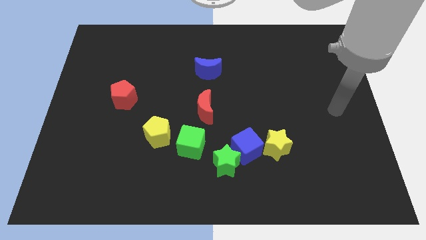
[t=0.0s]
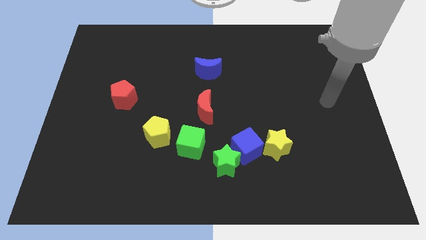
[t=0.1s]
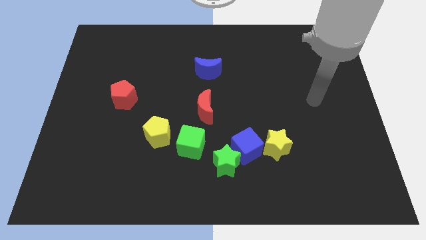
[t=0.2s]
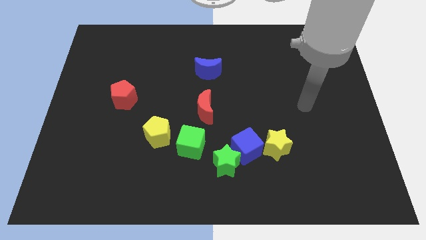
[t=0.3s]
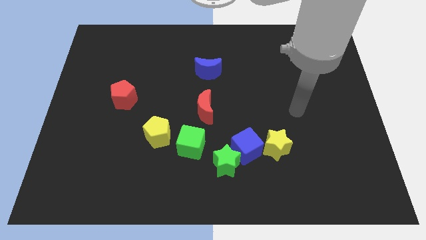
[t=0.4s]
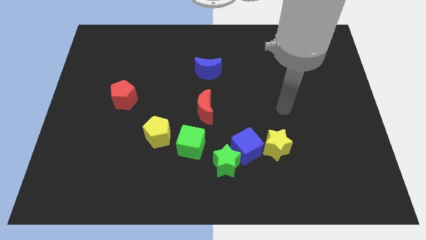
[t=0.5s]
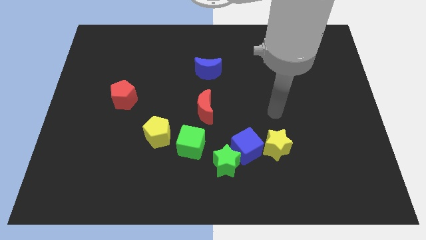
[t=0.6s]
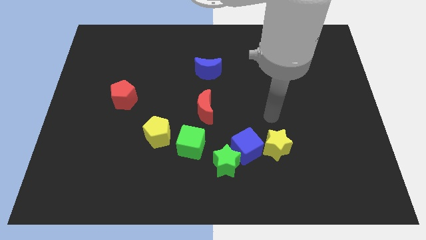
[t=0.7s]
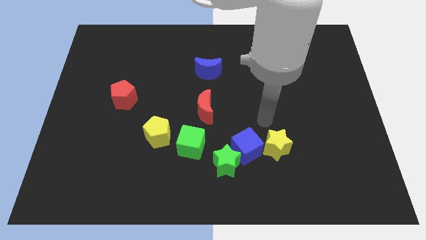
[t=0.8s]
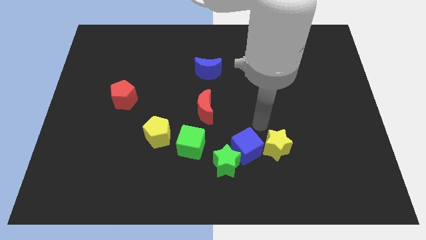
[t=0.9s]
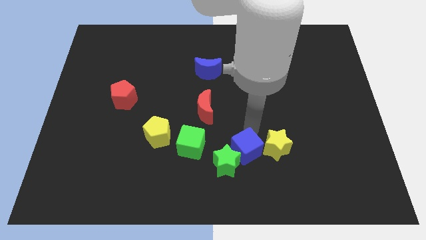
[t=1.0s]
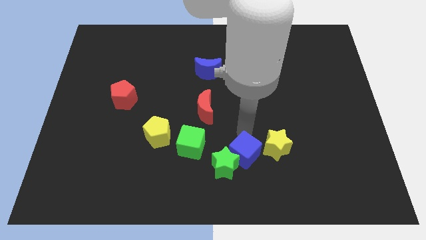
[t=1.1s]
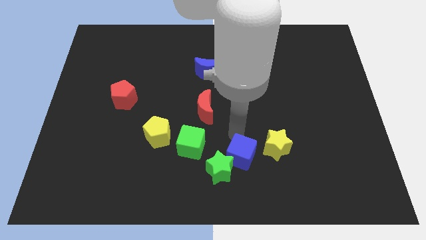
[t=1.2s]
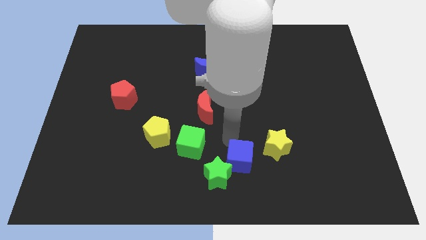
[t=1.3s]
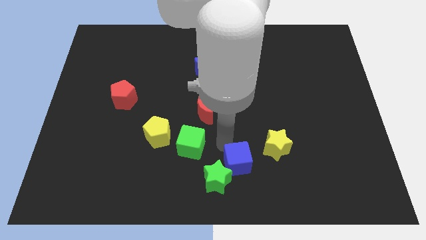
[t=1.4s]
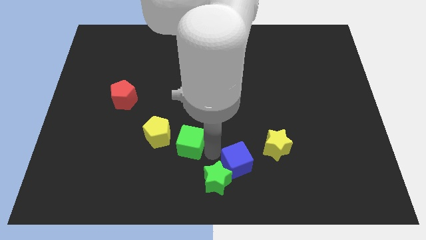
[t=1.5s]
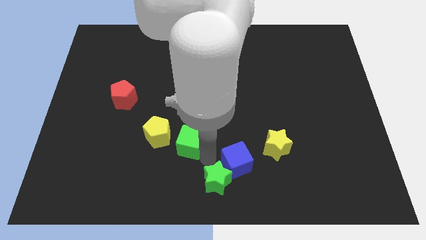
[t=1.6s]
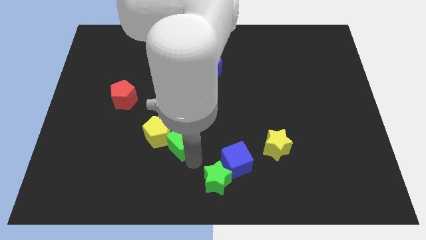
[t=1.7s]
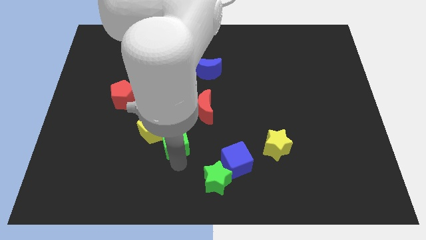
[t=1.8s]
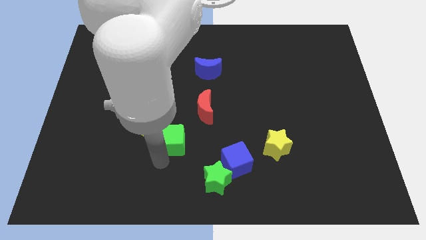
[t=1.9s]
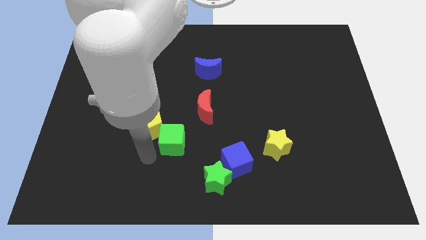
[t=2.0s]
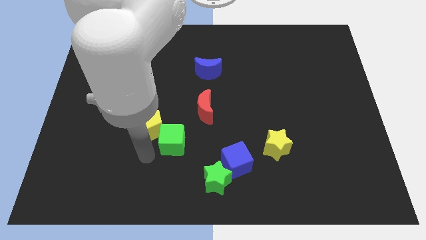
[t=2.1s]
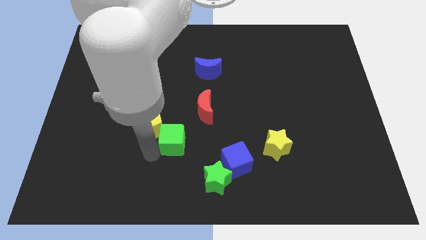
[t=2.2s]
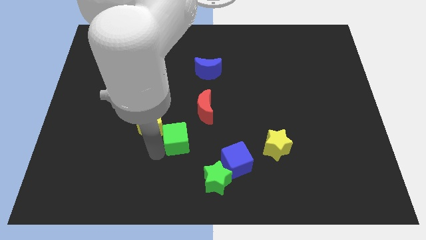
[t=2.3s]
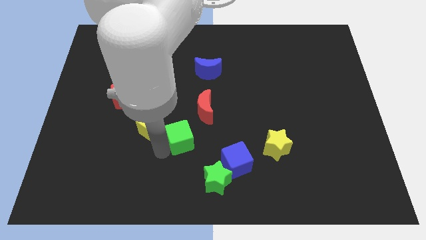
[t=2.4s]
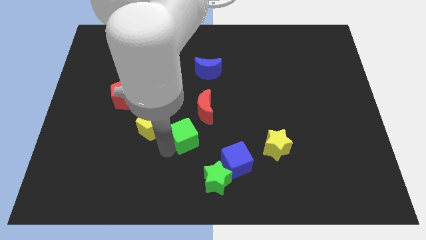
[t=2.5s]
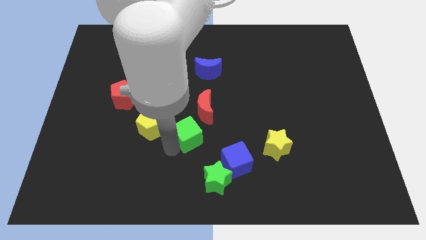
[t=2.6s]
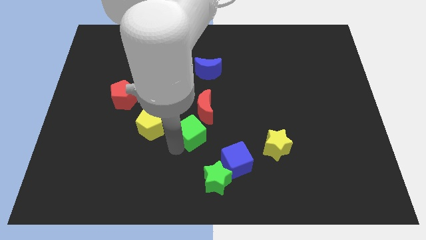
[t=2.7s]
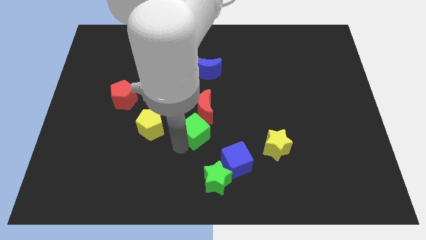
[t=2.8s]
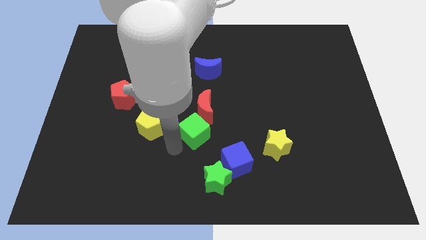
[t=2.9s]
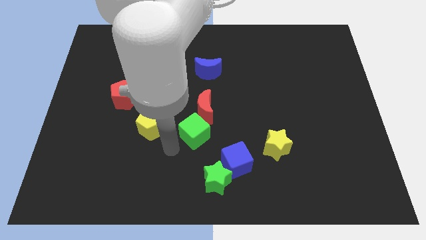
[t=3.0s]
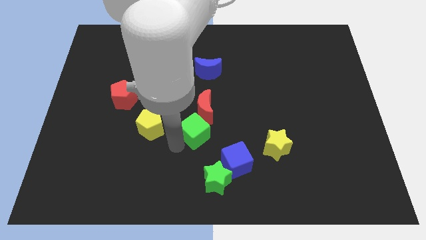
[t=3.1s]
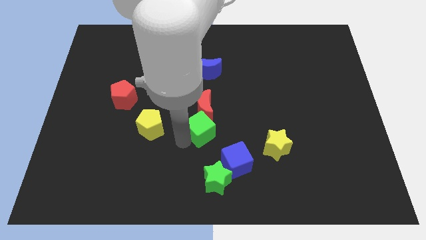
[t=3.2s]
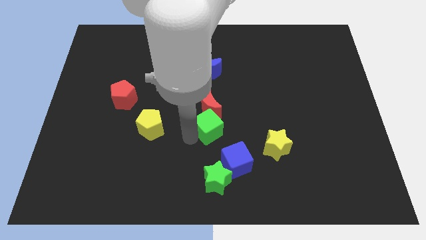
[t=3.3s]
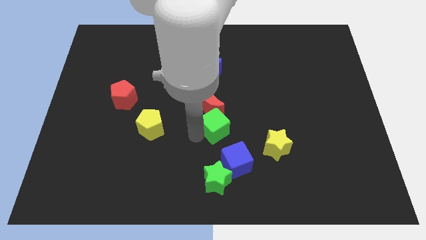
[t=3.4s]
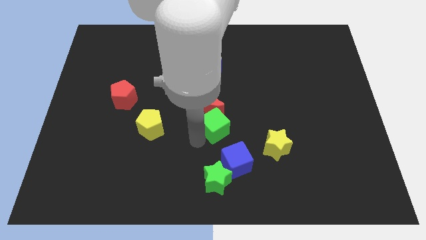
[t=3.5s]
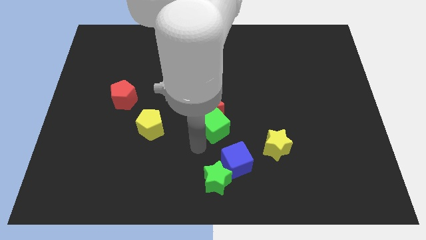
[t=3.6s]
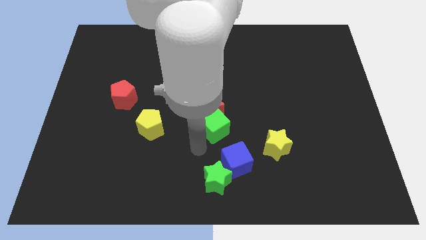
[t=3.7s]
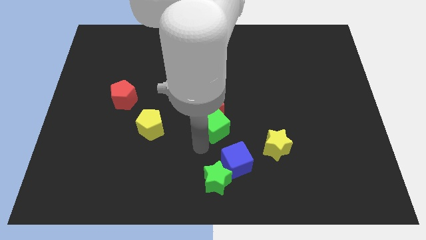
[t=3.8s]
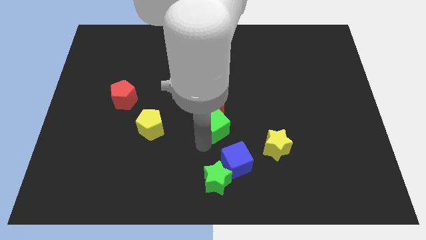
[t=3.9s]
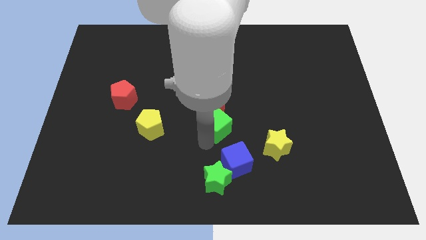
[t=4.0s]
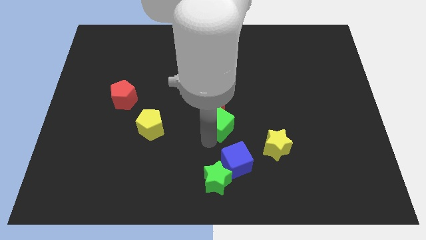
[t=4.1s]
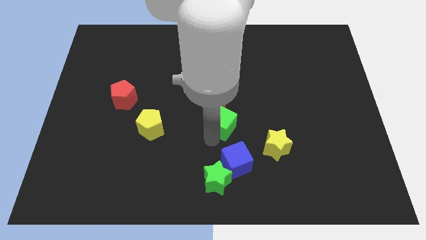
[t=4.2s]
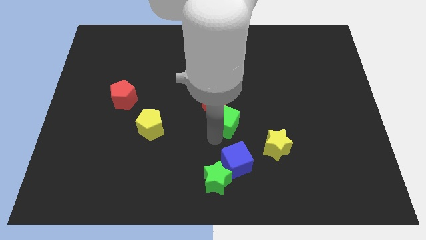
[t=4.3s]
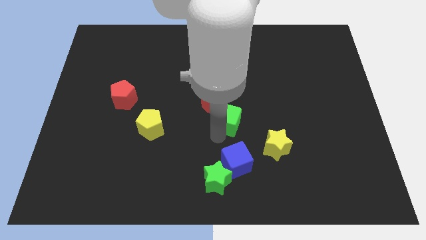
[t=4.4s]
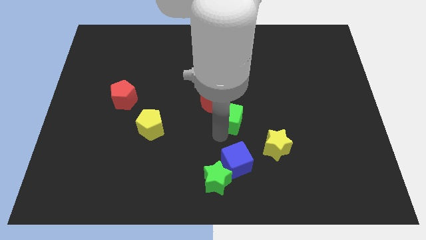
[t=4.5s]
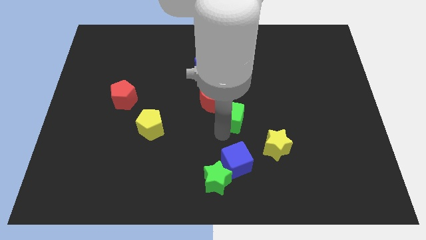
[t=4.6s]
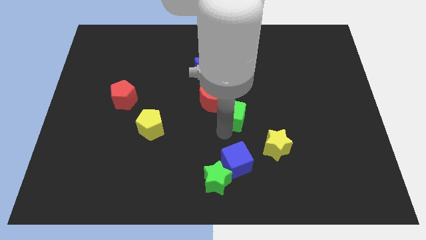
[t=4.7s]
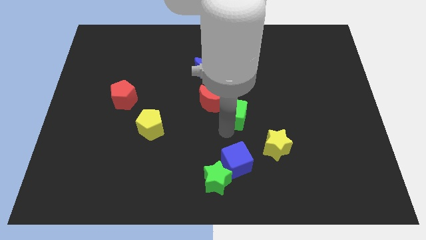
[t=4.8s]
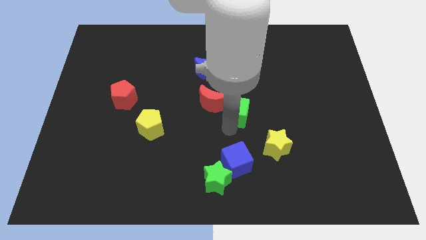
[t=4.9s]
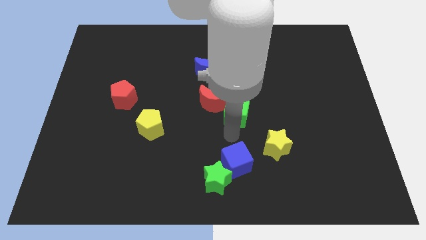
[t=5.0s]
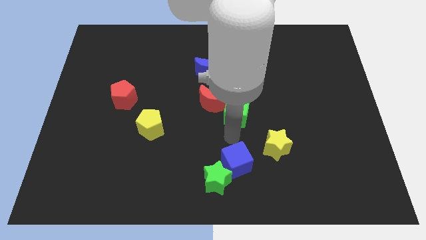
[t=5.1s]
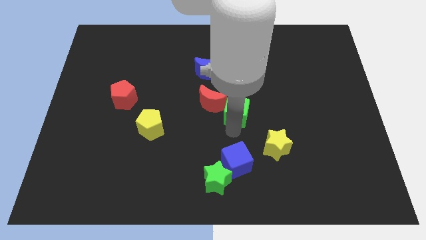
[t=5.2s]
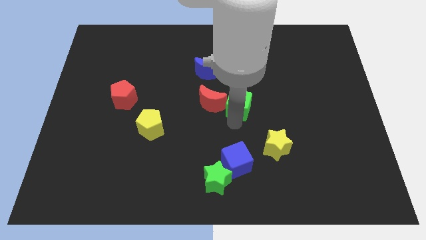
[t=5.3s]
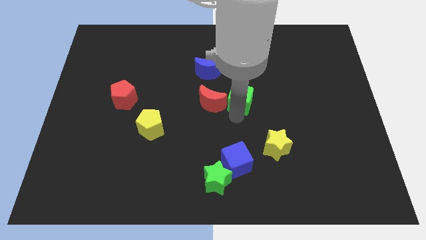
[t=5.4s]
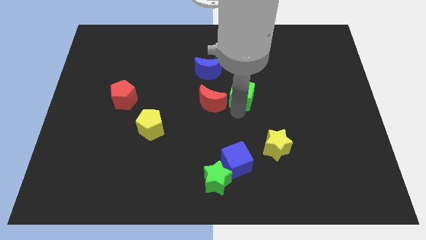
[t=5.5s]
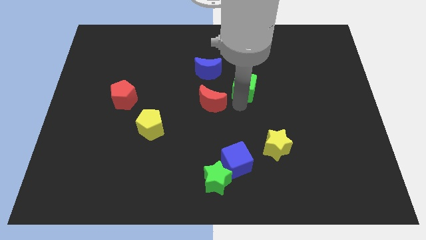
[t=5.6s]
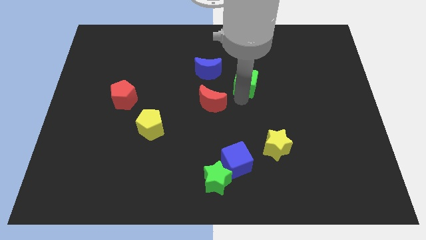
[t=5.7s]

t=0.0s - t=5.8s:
put the green cube just right of the blue moon

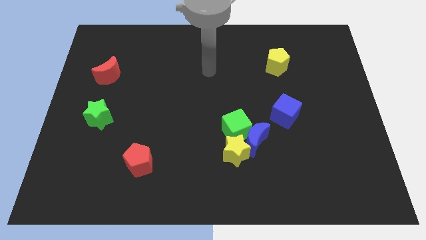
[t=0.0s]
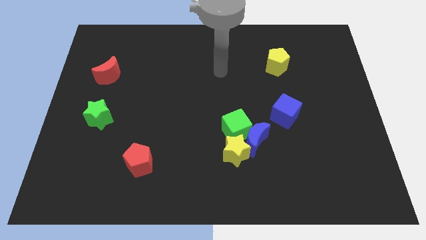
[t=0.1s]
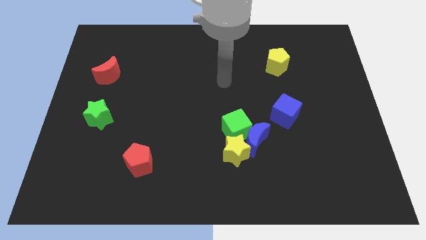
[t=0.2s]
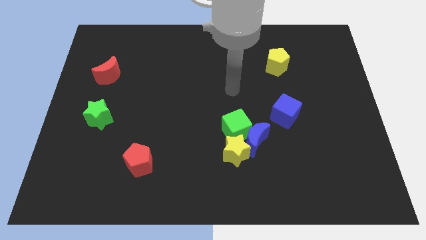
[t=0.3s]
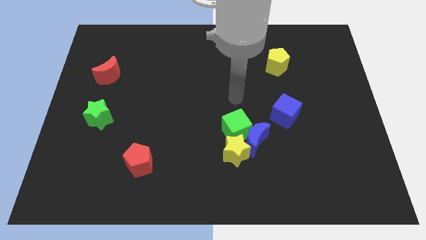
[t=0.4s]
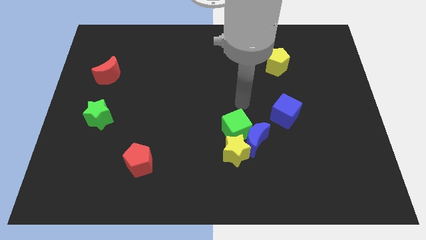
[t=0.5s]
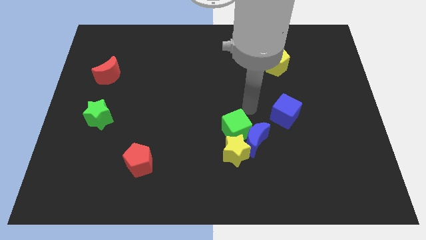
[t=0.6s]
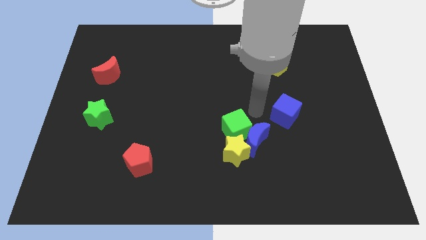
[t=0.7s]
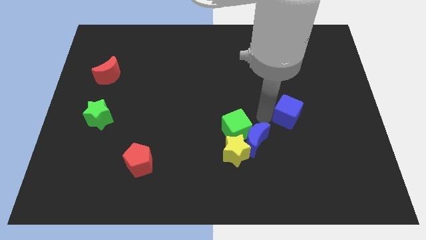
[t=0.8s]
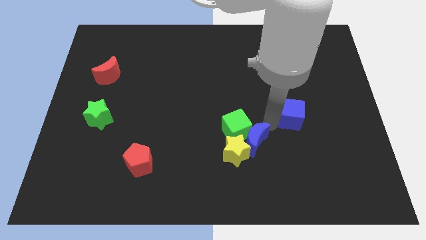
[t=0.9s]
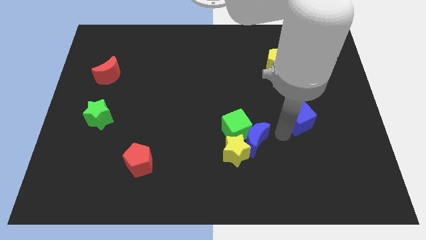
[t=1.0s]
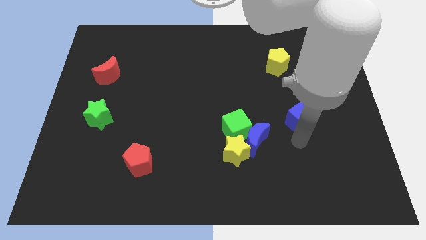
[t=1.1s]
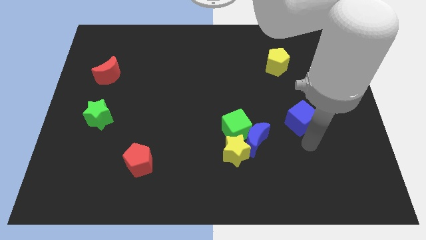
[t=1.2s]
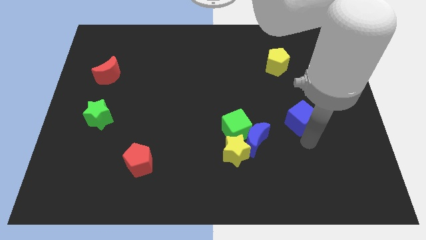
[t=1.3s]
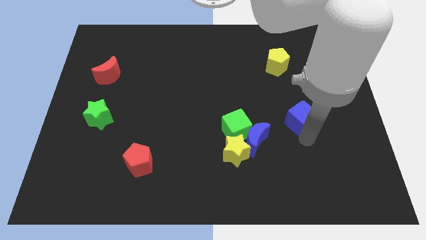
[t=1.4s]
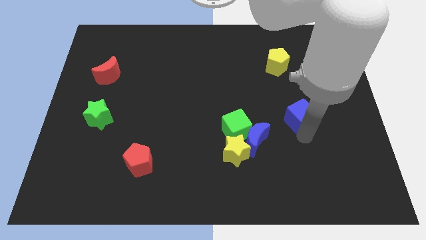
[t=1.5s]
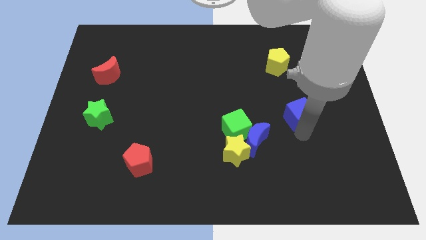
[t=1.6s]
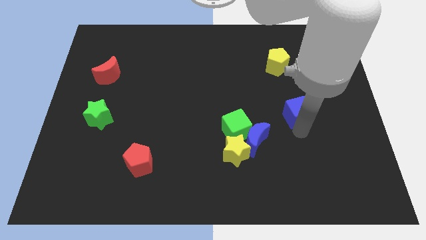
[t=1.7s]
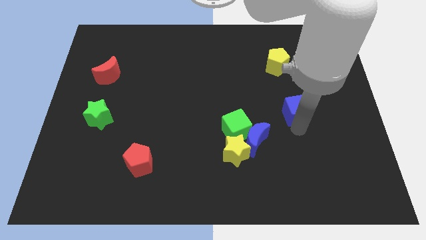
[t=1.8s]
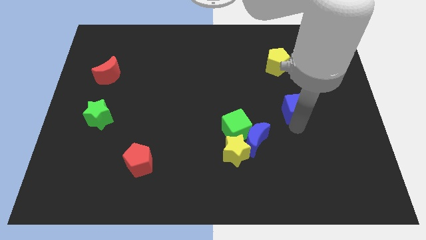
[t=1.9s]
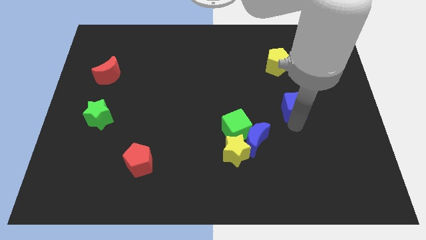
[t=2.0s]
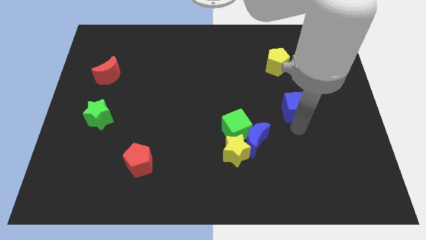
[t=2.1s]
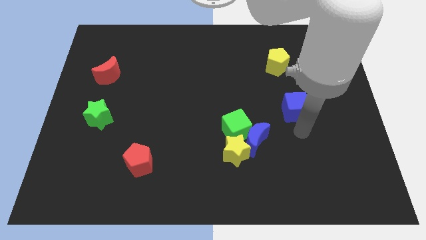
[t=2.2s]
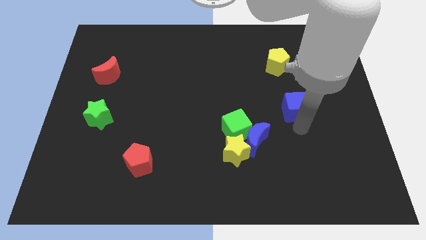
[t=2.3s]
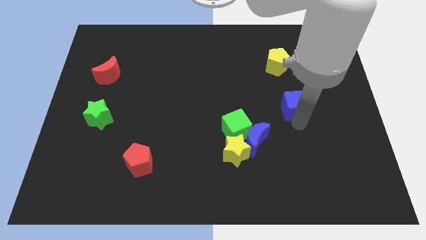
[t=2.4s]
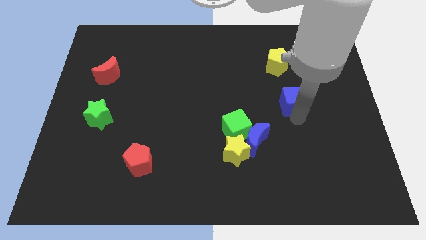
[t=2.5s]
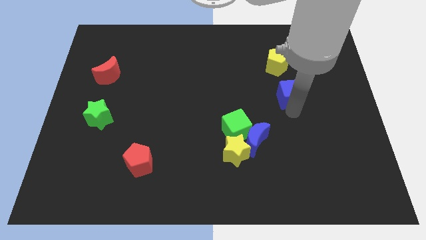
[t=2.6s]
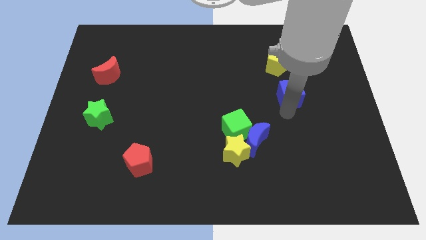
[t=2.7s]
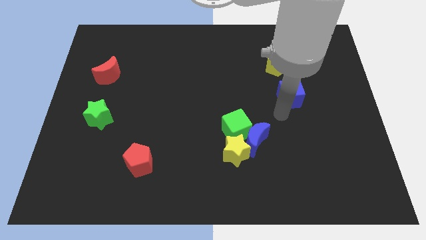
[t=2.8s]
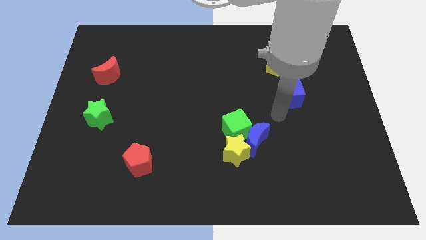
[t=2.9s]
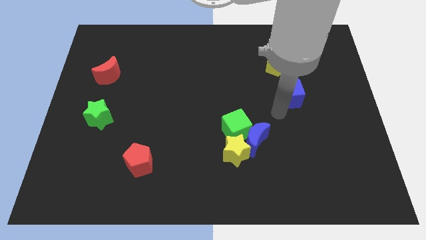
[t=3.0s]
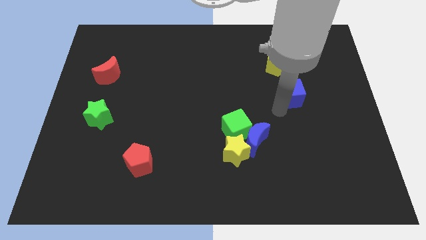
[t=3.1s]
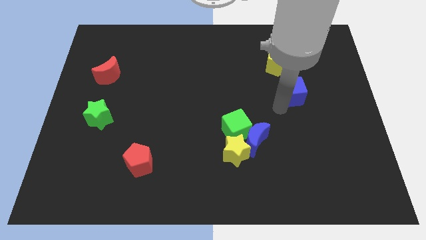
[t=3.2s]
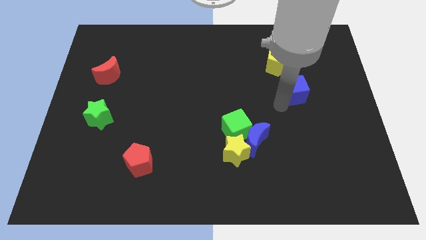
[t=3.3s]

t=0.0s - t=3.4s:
put the blue cube to the bottom right of the yellow pentagon
